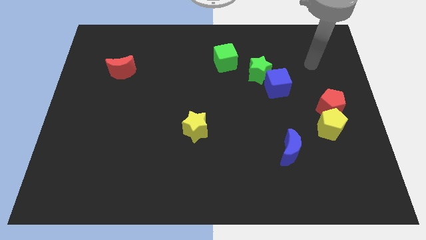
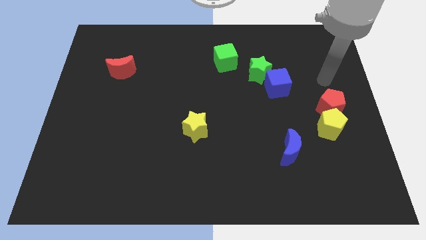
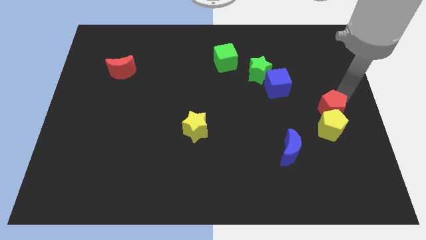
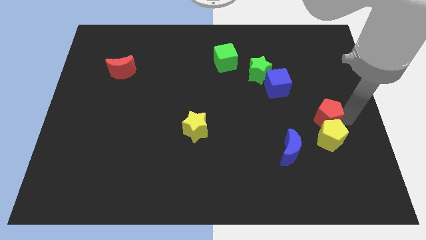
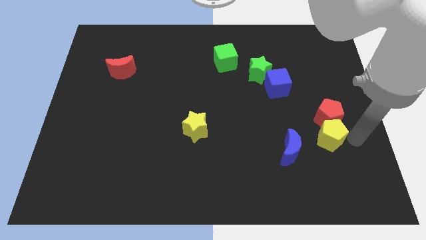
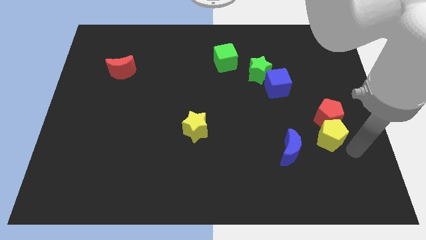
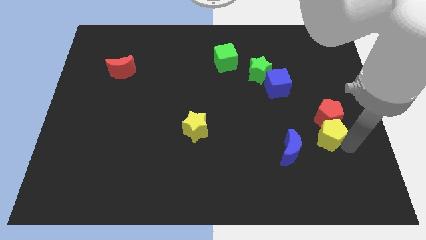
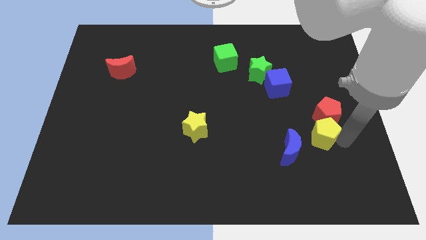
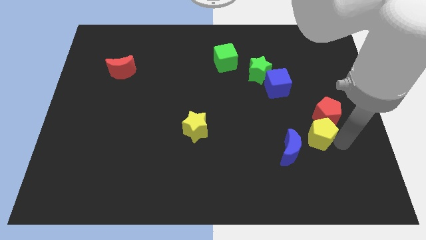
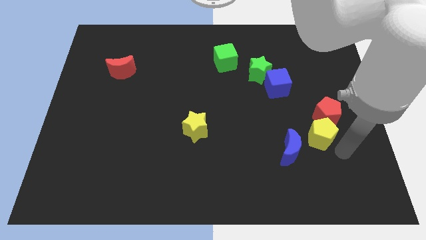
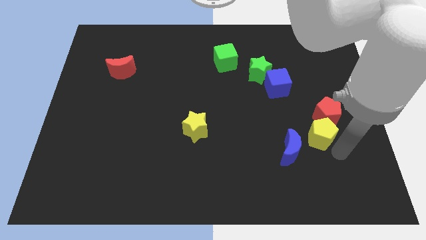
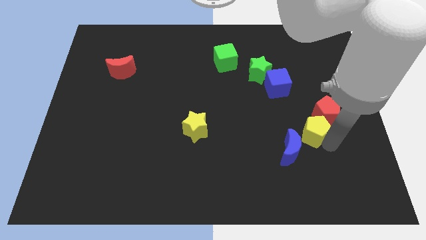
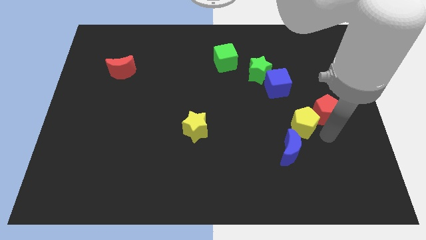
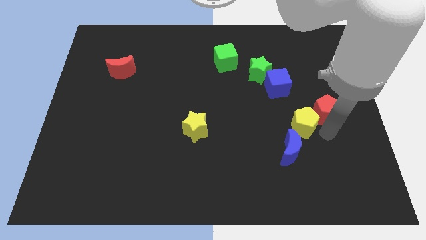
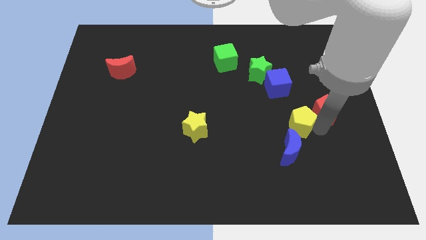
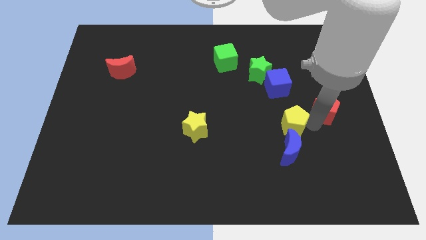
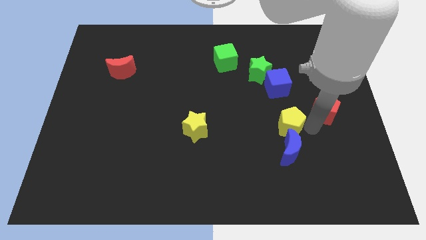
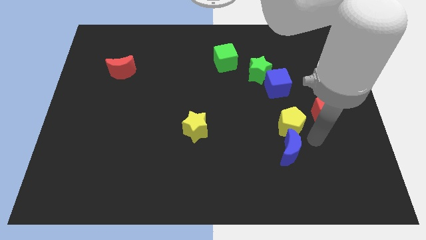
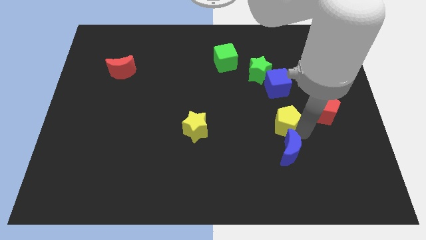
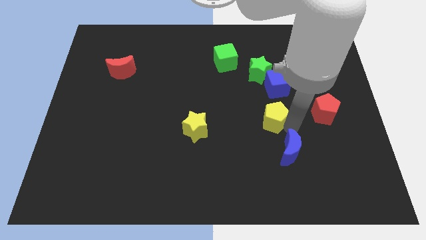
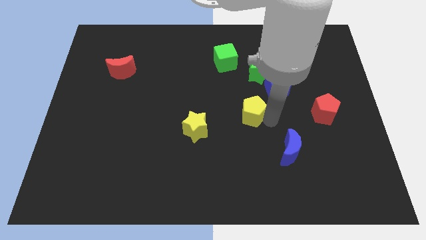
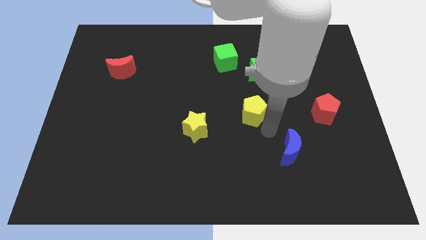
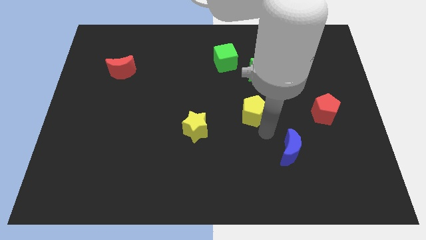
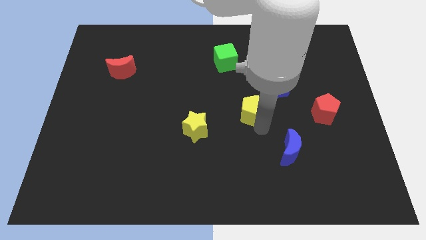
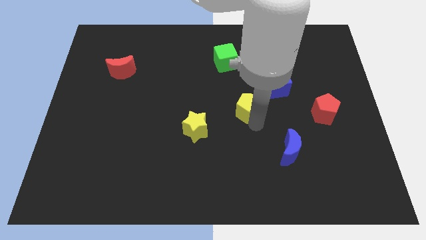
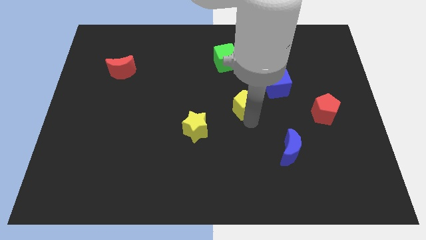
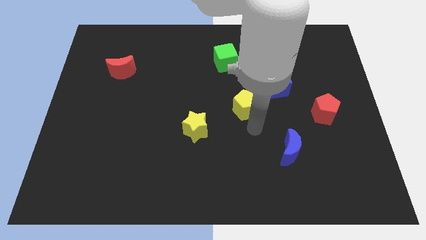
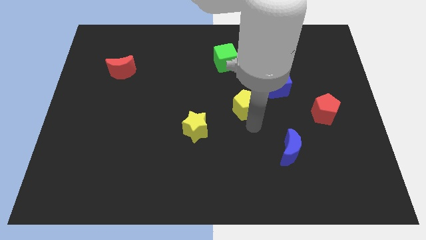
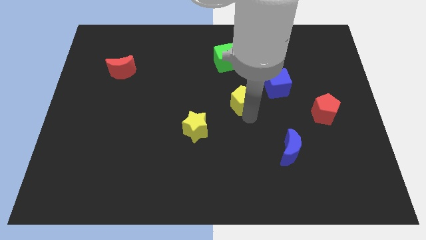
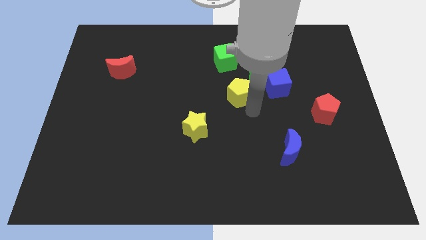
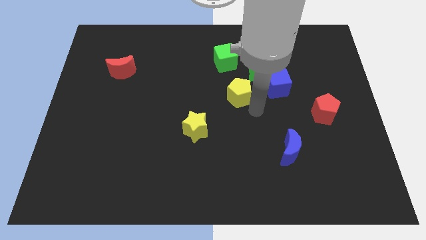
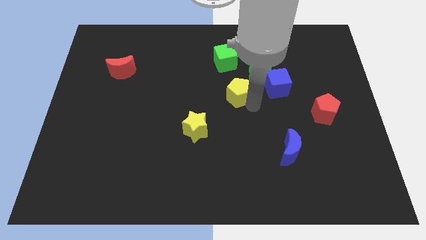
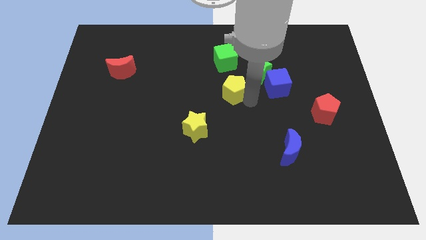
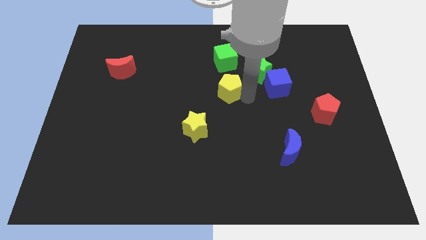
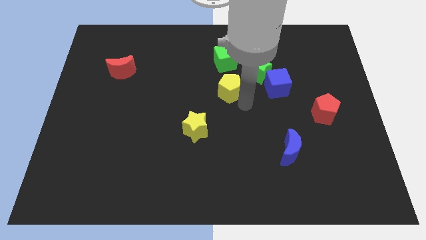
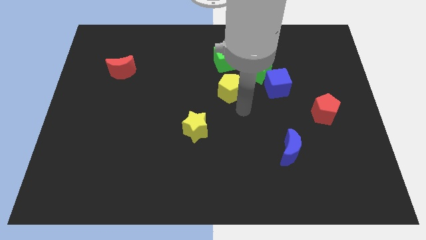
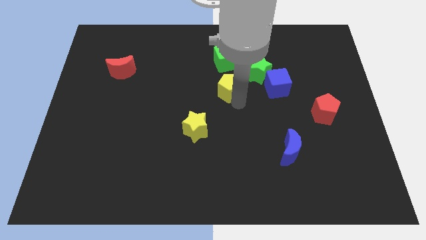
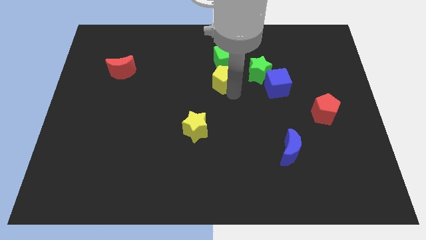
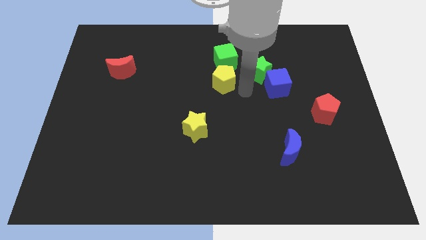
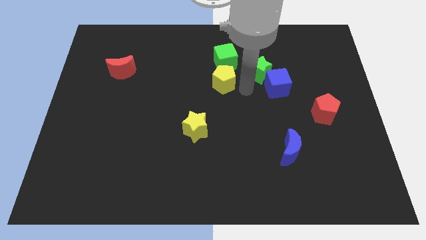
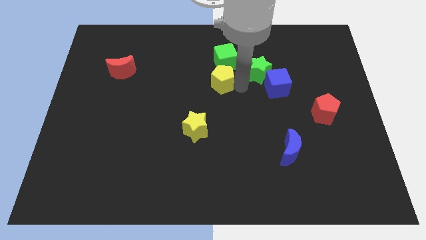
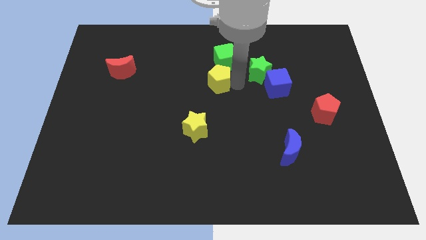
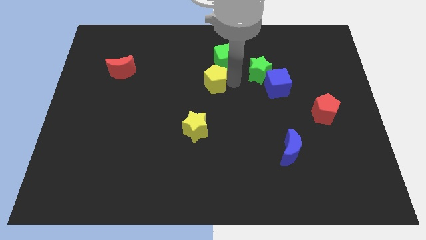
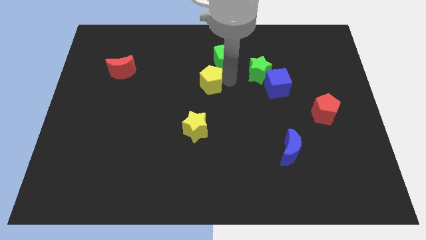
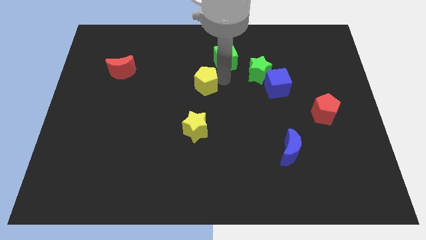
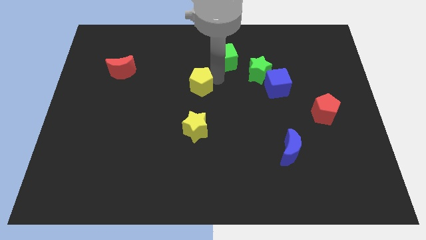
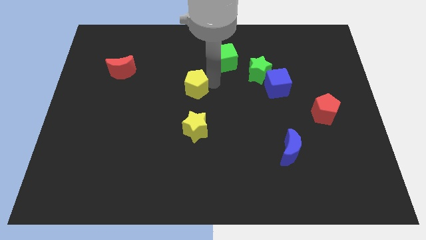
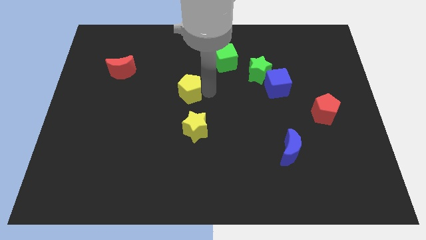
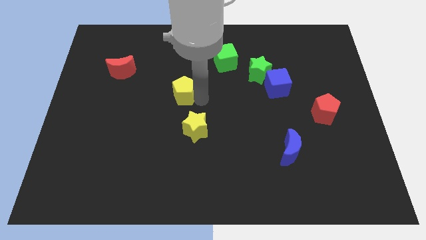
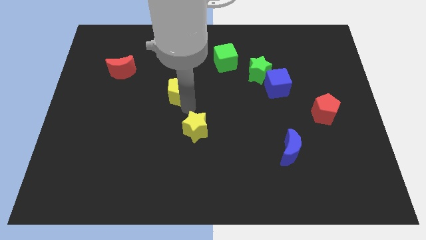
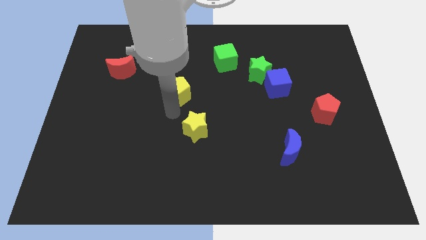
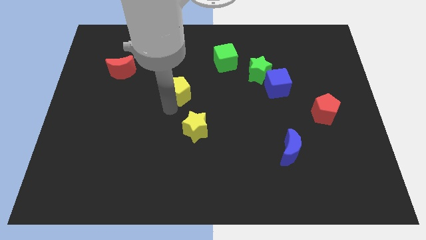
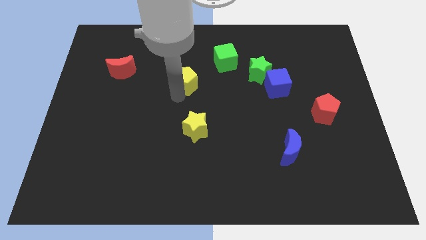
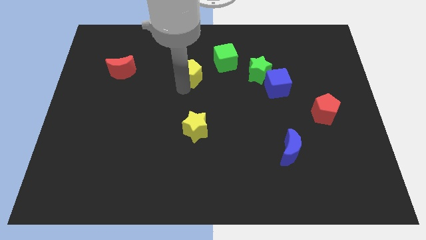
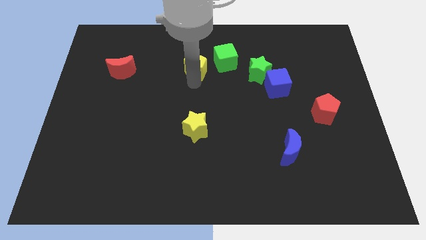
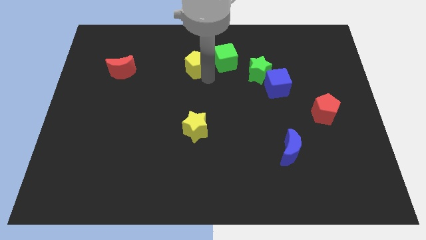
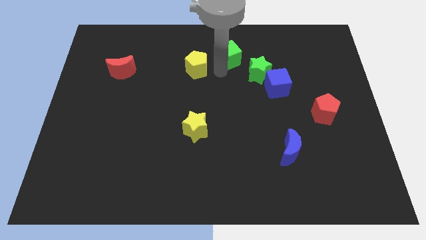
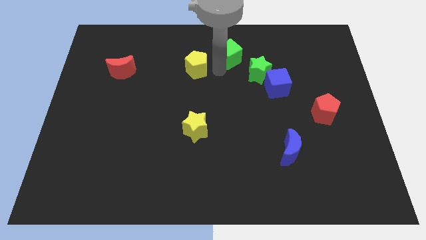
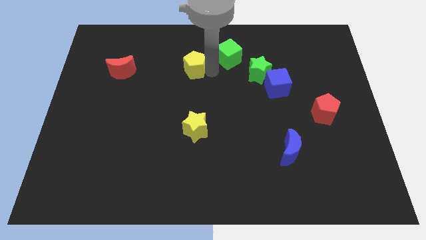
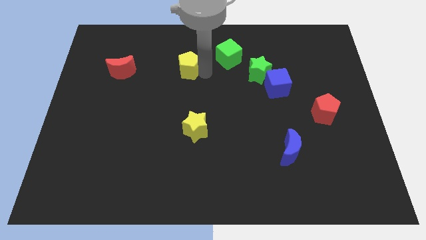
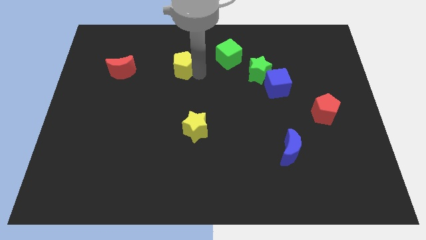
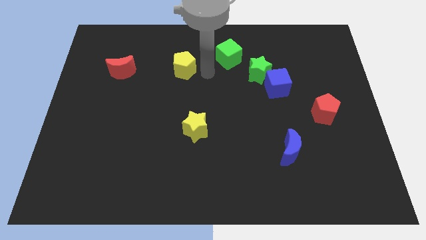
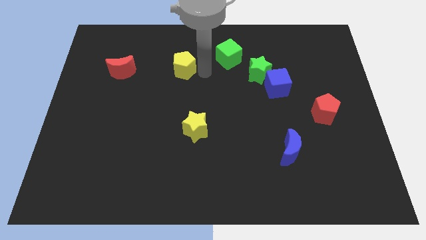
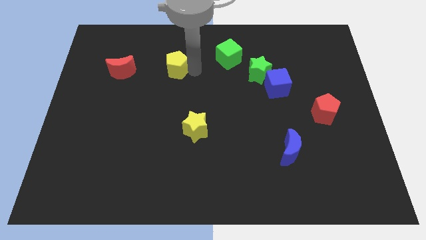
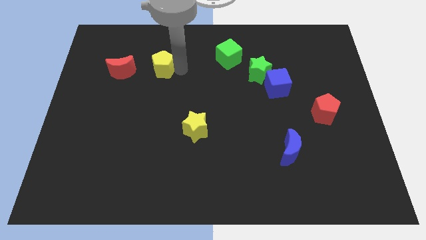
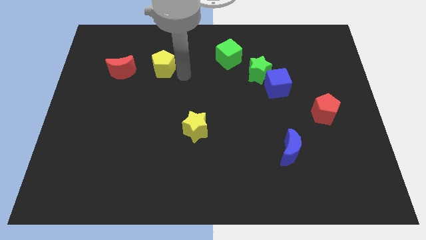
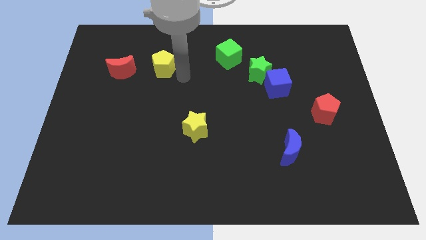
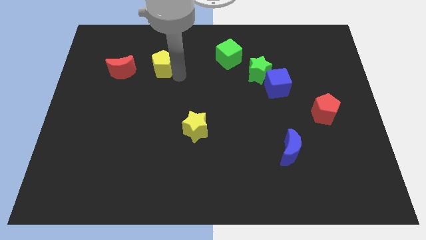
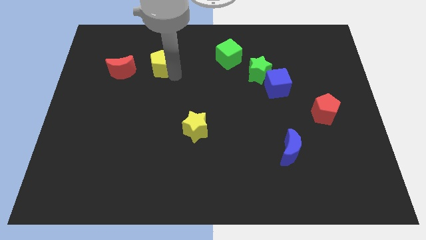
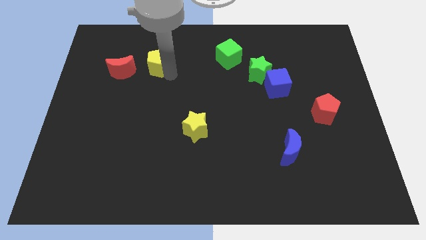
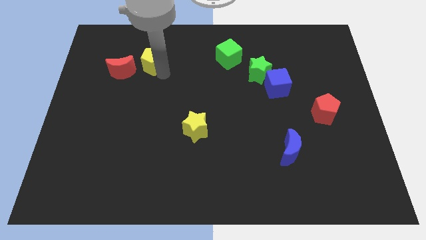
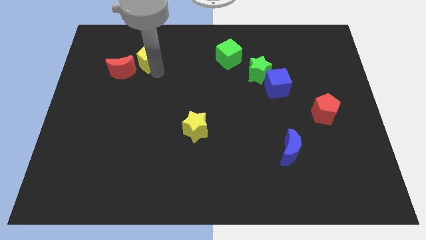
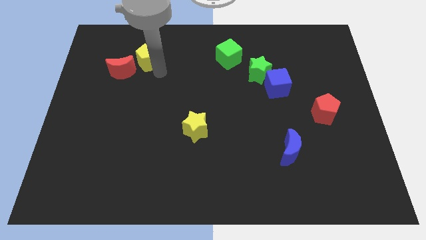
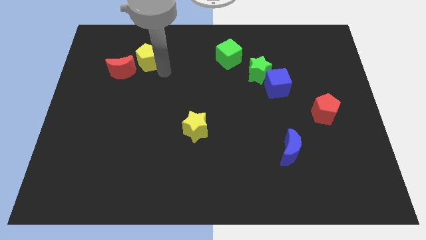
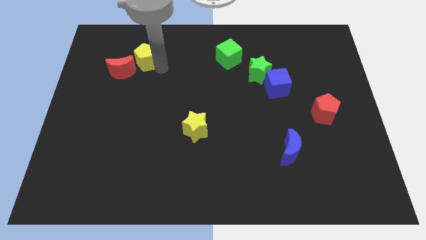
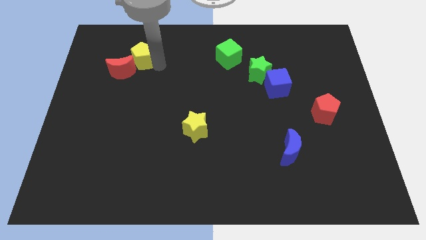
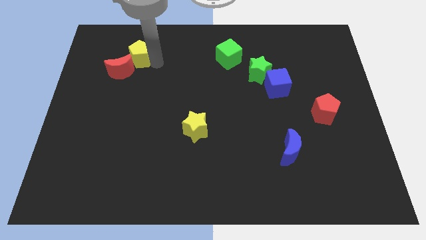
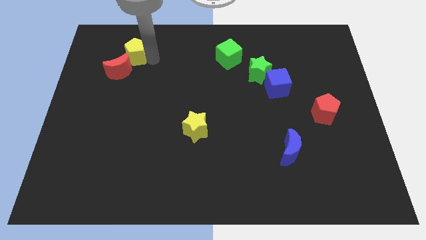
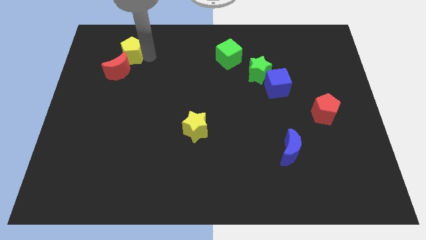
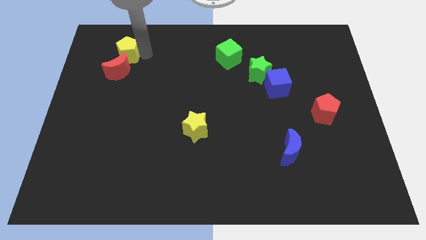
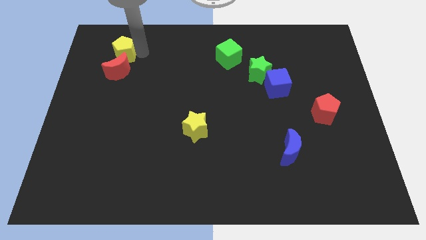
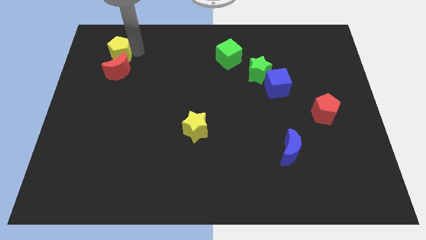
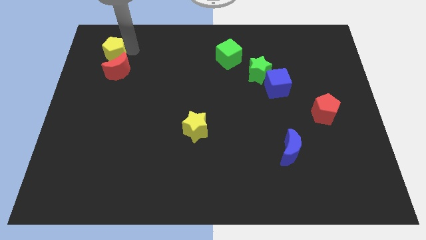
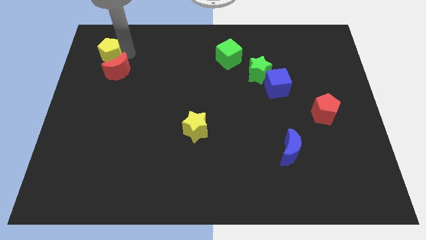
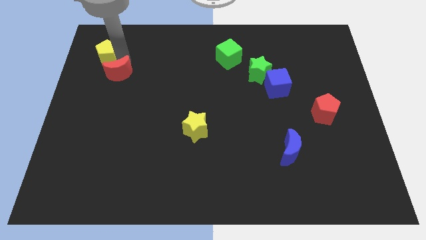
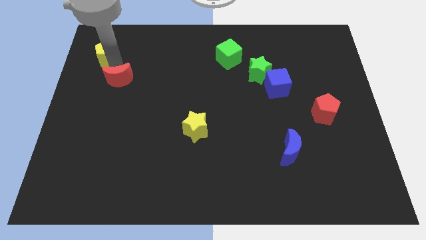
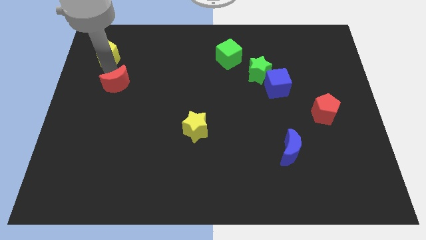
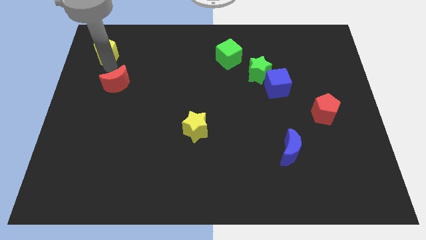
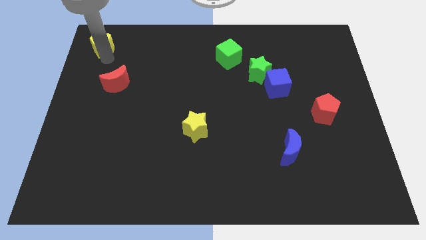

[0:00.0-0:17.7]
slide the yellow pentagon to the top left
